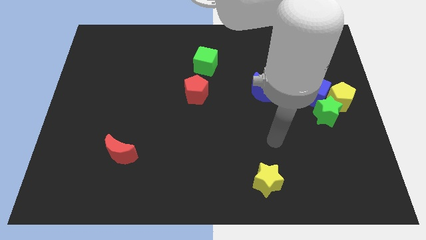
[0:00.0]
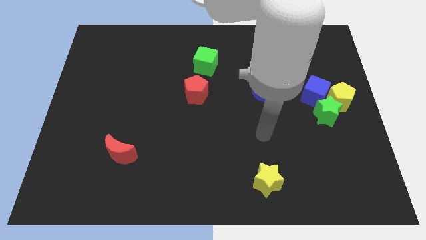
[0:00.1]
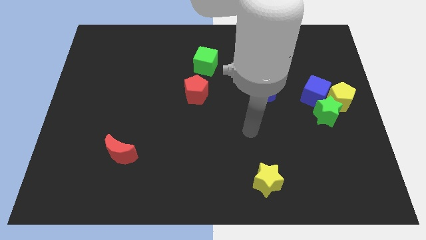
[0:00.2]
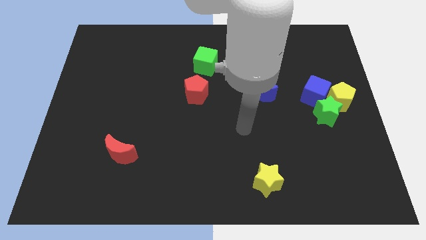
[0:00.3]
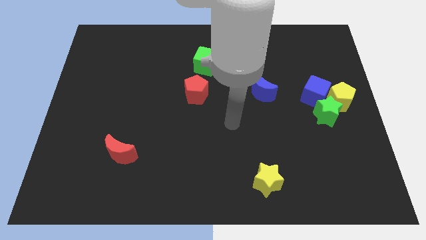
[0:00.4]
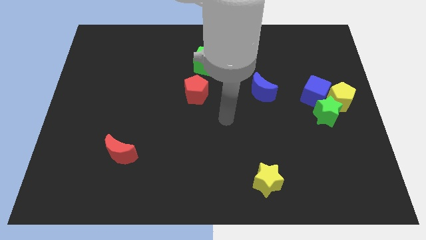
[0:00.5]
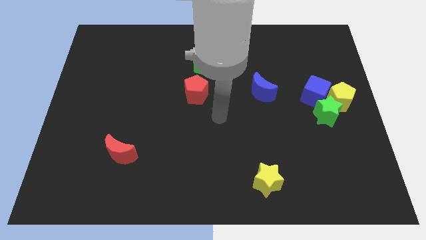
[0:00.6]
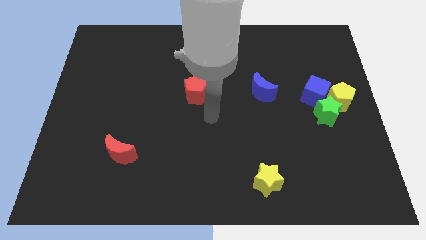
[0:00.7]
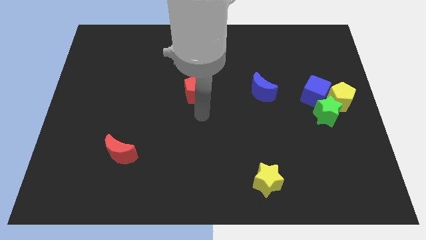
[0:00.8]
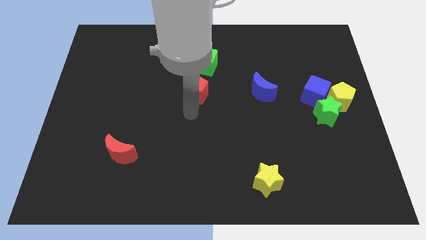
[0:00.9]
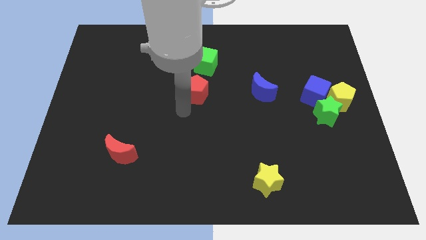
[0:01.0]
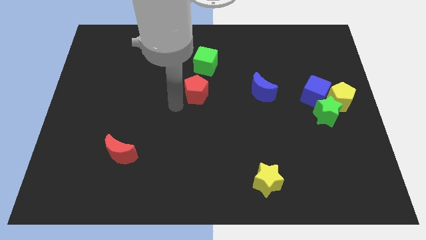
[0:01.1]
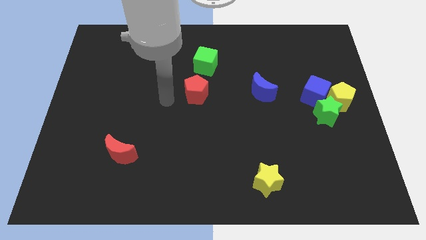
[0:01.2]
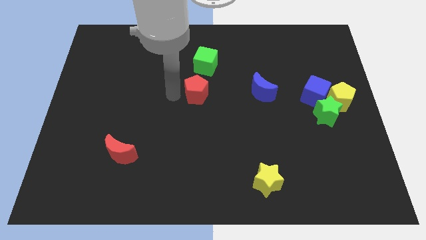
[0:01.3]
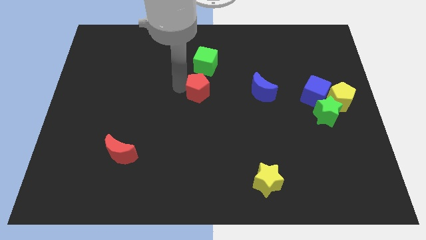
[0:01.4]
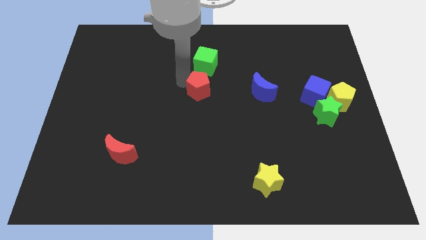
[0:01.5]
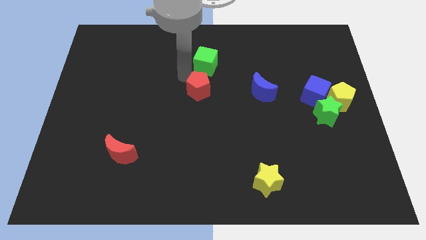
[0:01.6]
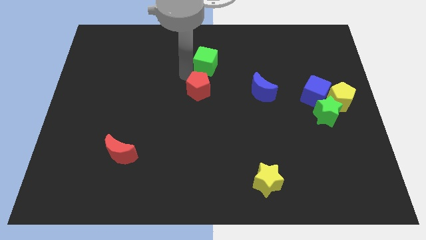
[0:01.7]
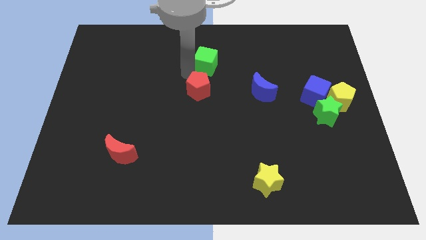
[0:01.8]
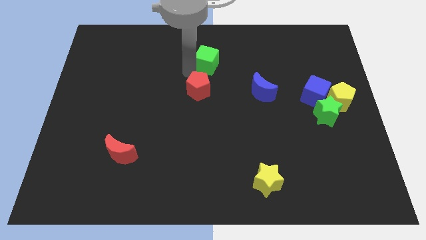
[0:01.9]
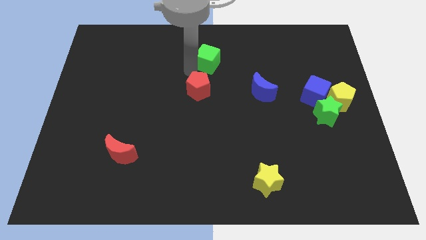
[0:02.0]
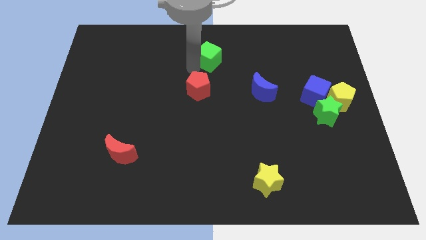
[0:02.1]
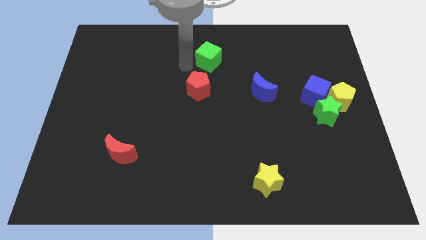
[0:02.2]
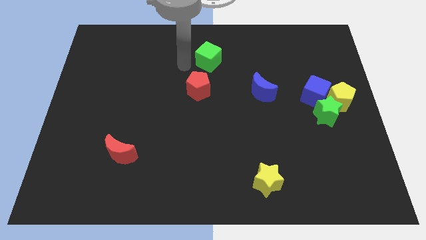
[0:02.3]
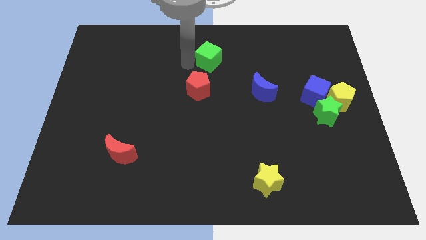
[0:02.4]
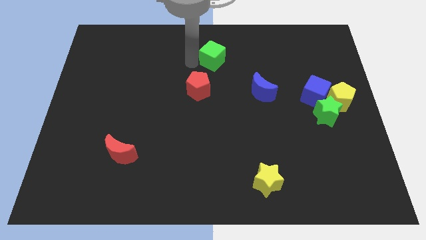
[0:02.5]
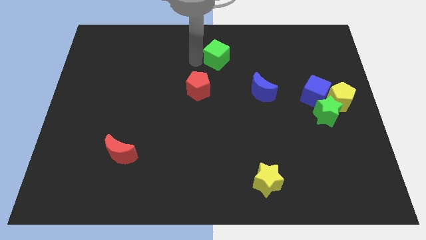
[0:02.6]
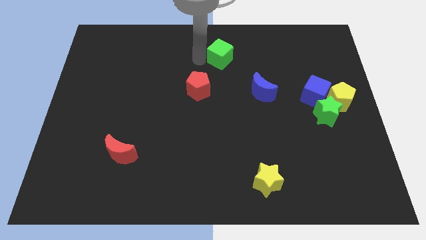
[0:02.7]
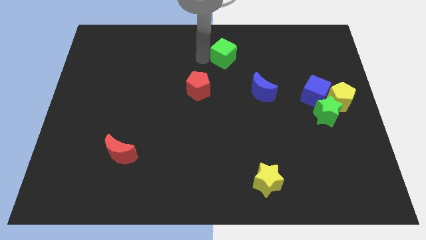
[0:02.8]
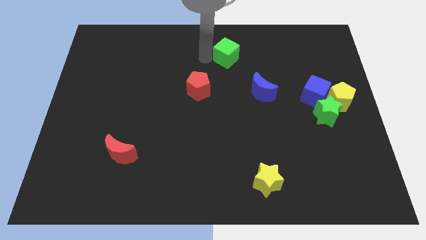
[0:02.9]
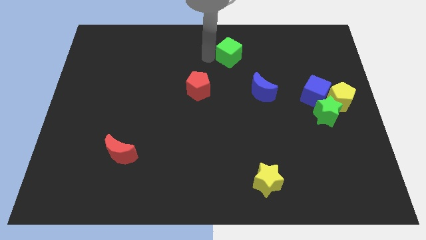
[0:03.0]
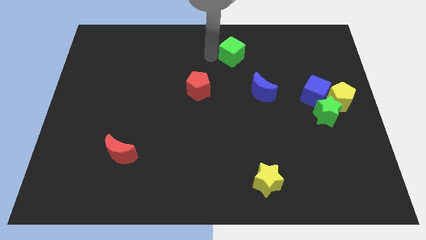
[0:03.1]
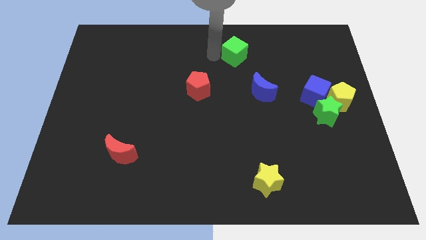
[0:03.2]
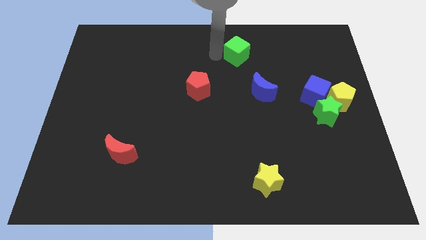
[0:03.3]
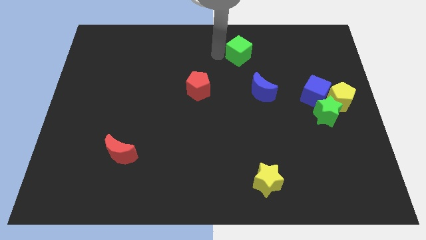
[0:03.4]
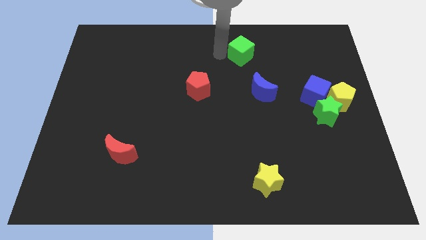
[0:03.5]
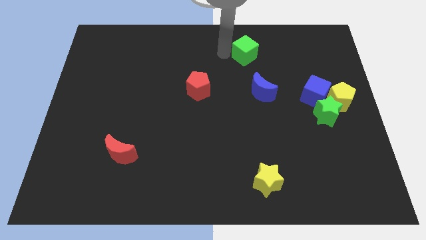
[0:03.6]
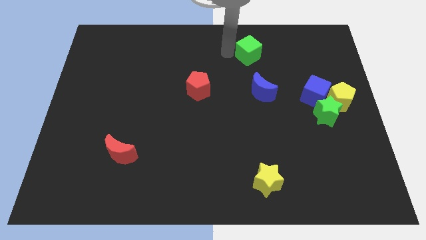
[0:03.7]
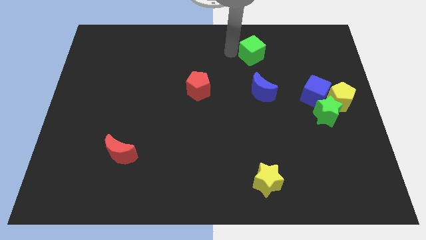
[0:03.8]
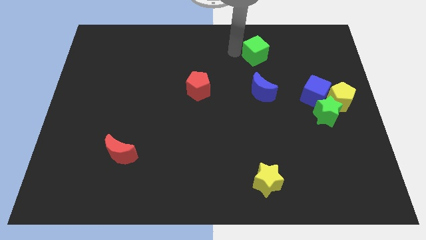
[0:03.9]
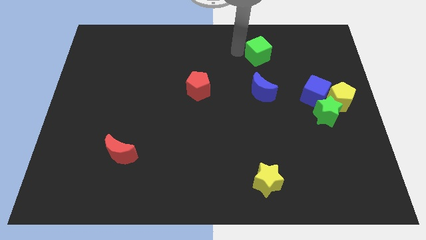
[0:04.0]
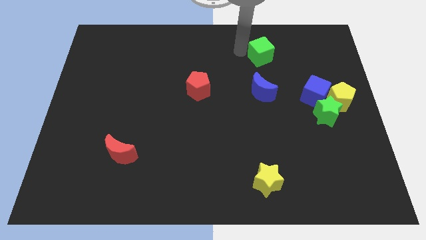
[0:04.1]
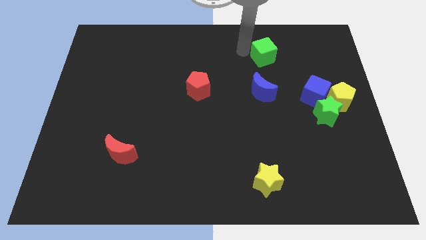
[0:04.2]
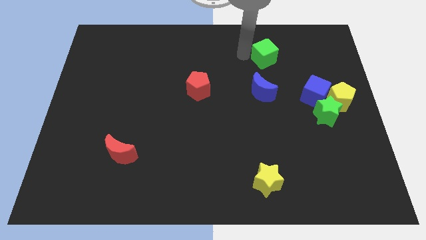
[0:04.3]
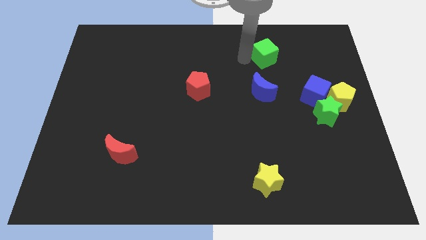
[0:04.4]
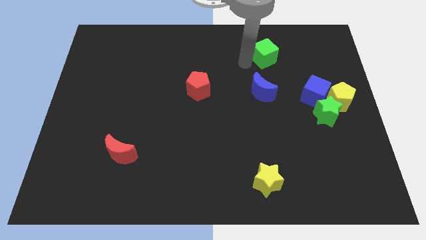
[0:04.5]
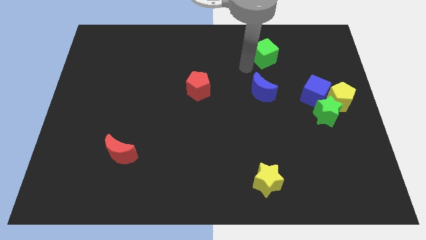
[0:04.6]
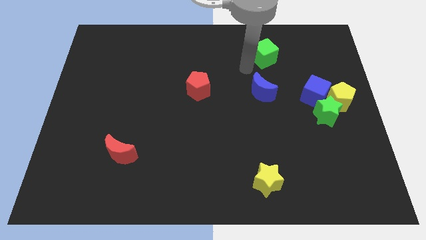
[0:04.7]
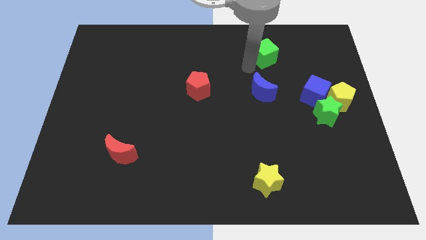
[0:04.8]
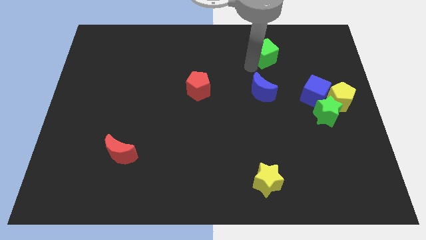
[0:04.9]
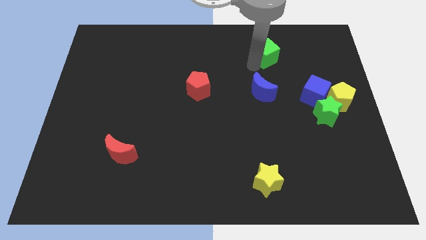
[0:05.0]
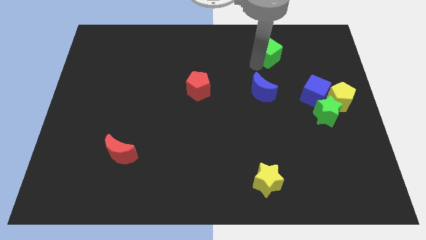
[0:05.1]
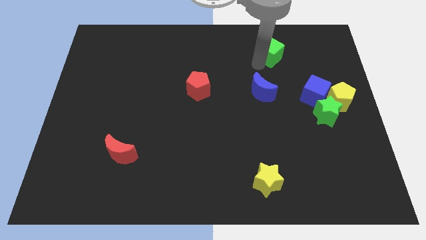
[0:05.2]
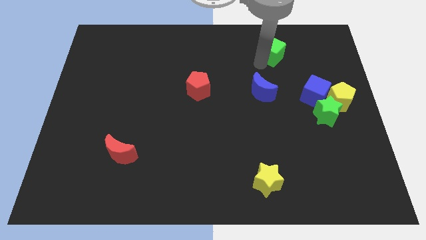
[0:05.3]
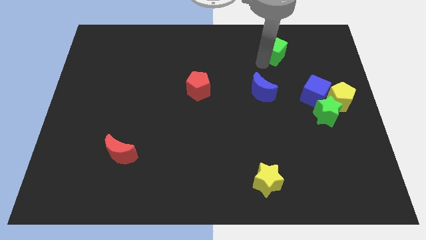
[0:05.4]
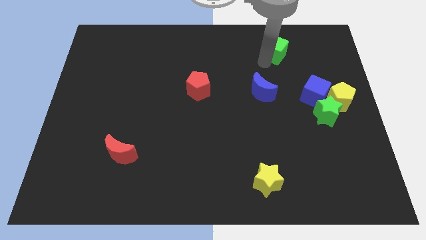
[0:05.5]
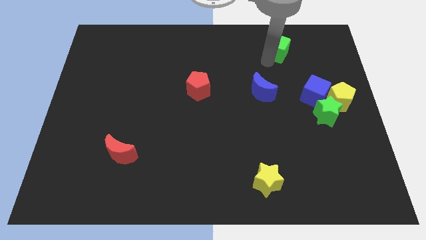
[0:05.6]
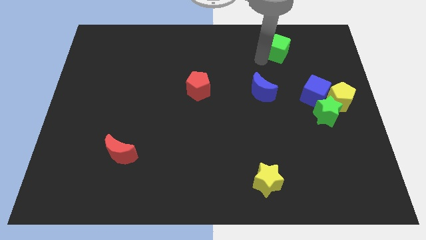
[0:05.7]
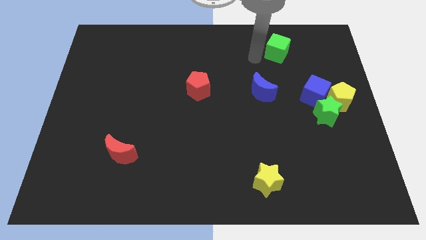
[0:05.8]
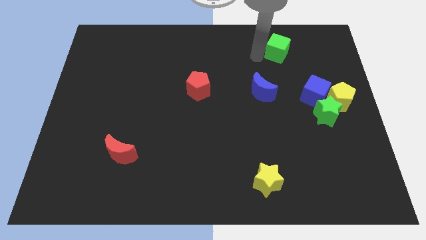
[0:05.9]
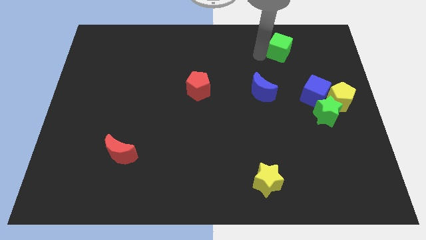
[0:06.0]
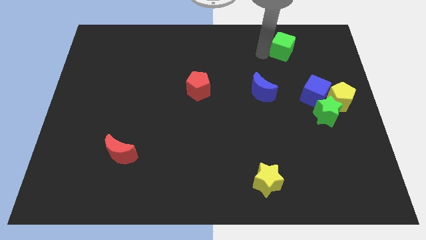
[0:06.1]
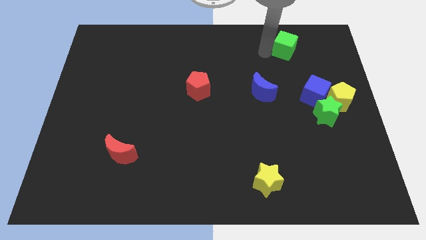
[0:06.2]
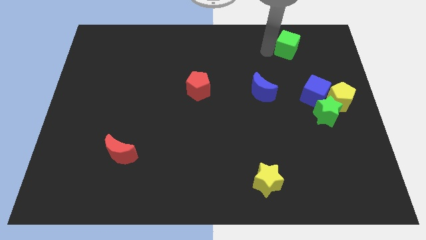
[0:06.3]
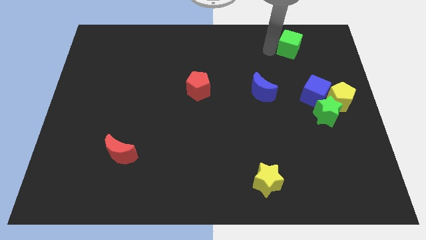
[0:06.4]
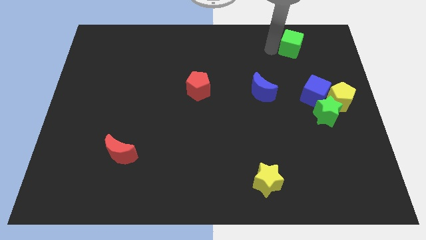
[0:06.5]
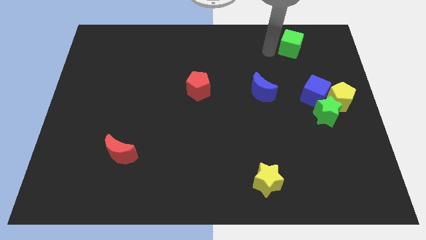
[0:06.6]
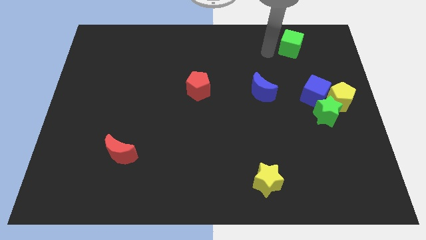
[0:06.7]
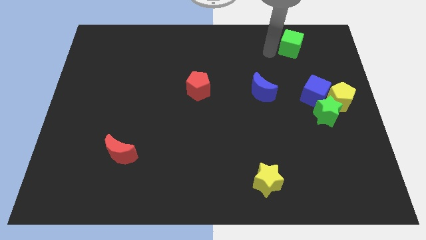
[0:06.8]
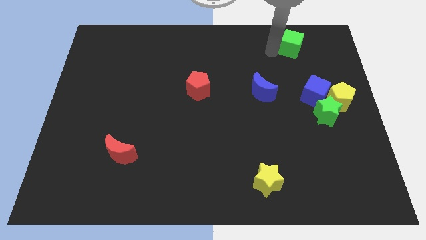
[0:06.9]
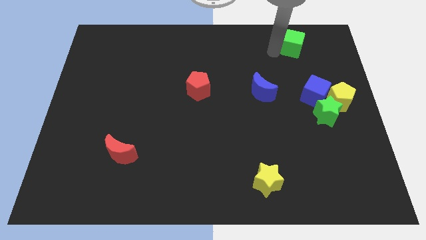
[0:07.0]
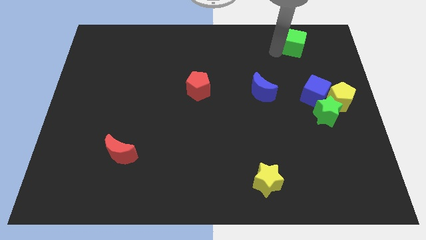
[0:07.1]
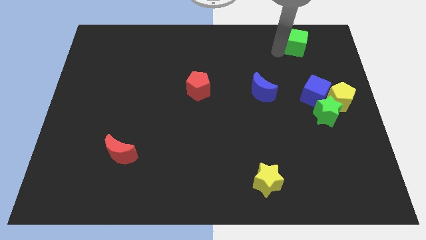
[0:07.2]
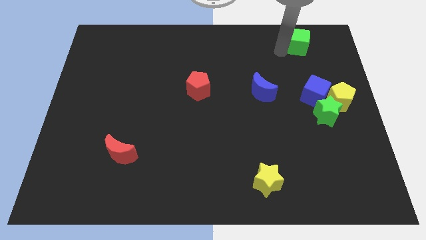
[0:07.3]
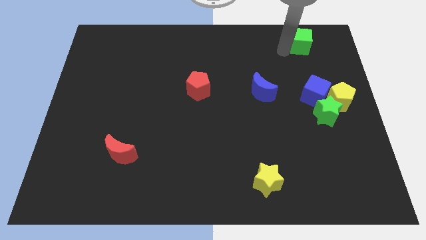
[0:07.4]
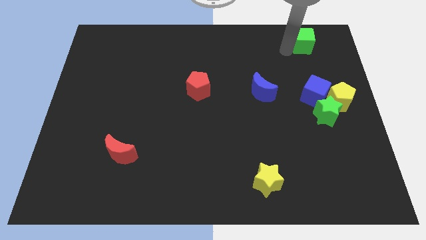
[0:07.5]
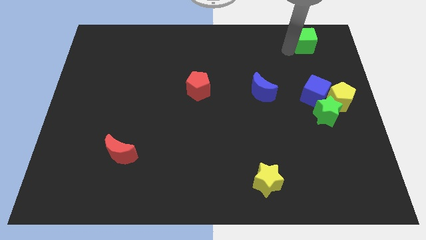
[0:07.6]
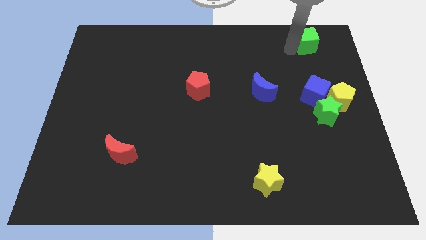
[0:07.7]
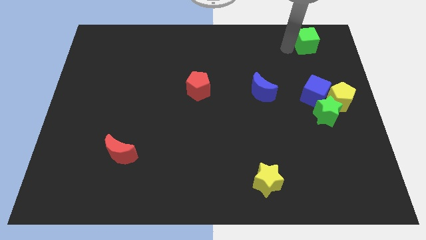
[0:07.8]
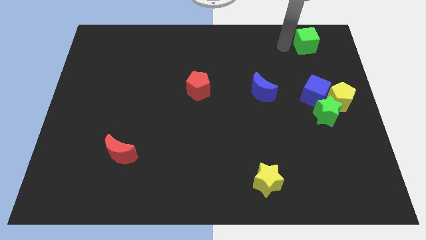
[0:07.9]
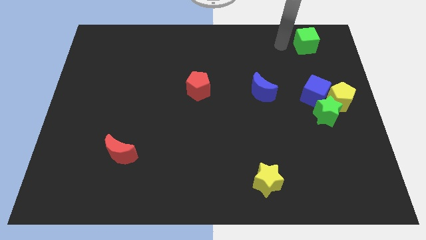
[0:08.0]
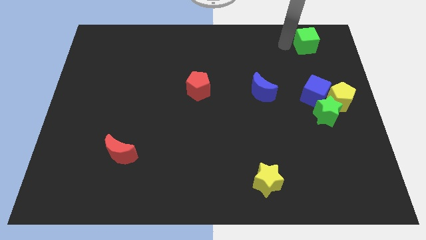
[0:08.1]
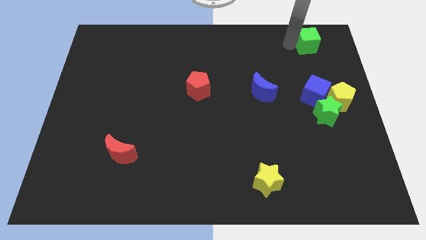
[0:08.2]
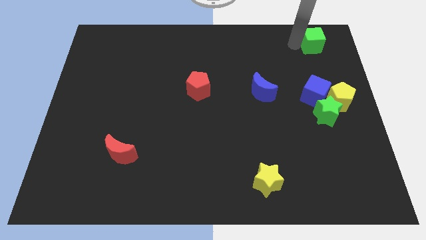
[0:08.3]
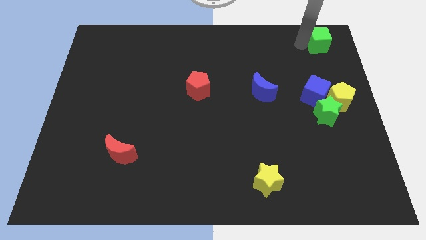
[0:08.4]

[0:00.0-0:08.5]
slide the green cube to the top right
